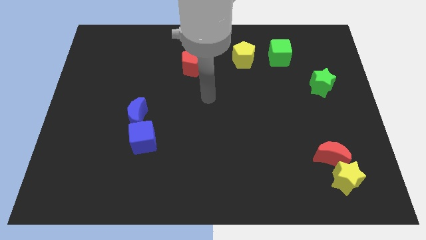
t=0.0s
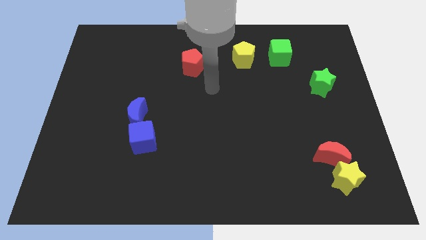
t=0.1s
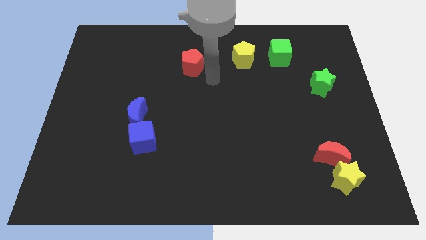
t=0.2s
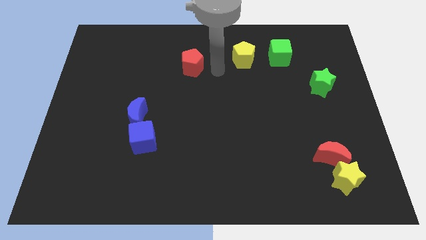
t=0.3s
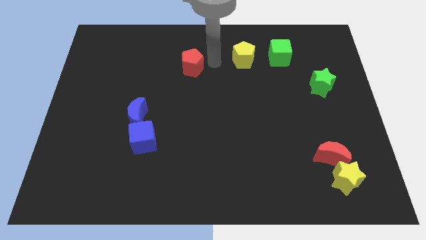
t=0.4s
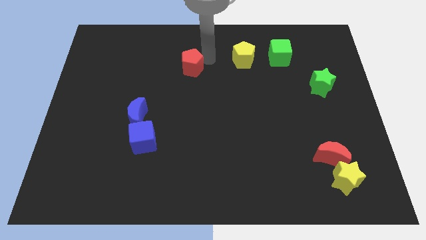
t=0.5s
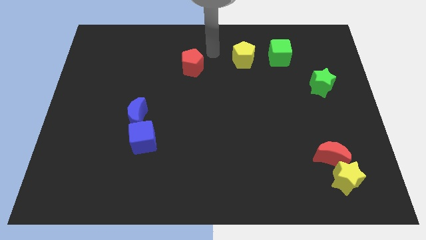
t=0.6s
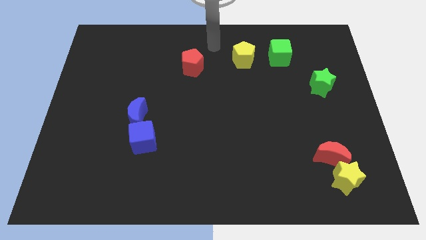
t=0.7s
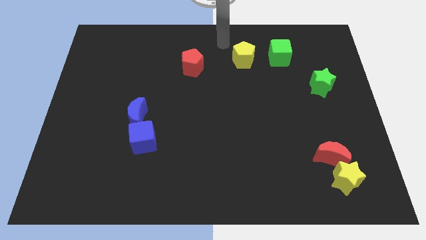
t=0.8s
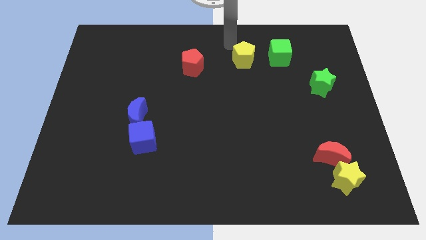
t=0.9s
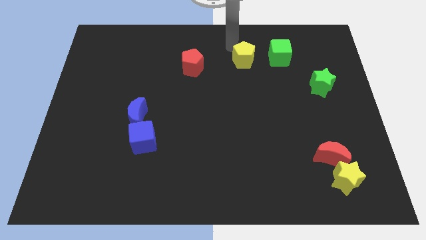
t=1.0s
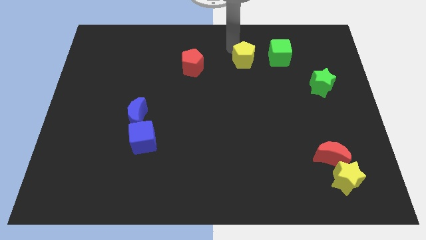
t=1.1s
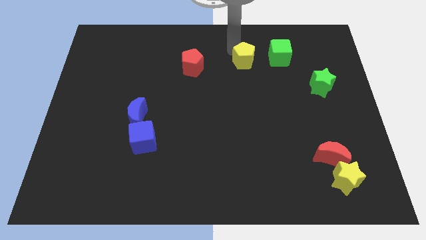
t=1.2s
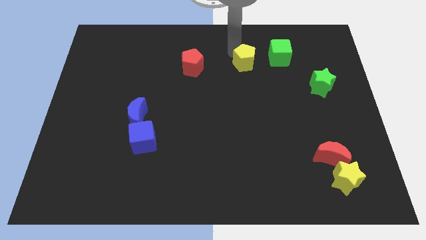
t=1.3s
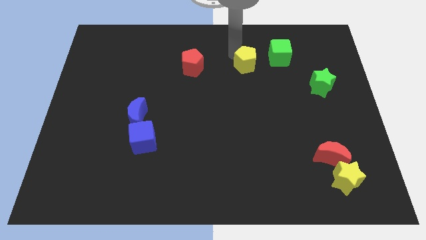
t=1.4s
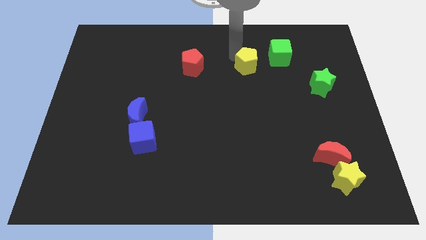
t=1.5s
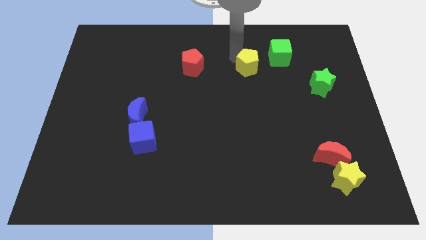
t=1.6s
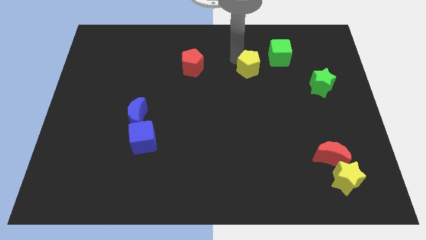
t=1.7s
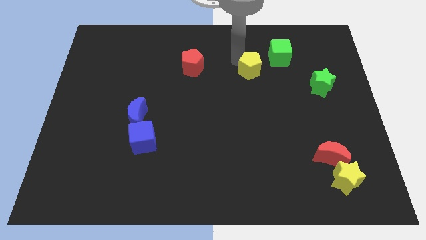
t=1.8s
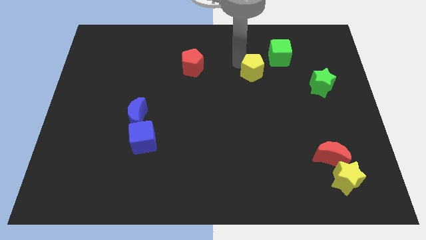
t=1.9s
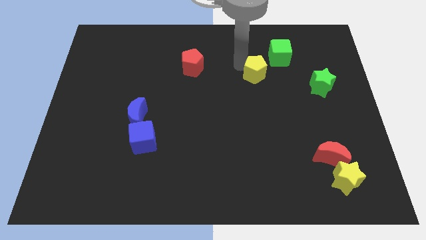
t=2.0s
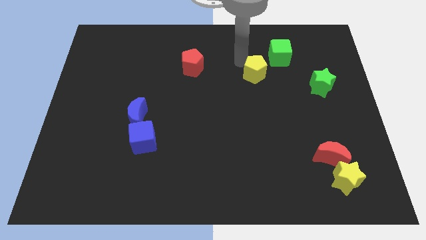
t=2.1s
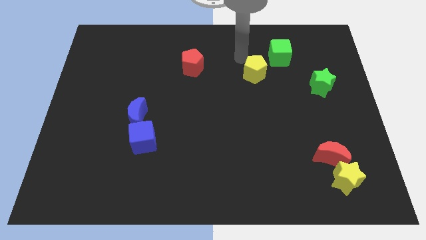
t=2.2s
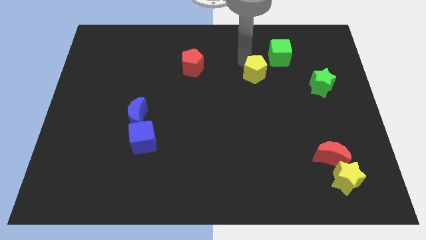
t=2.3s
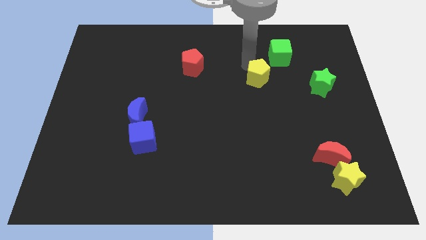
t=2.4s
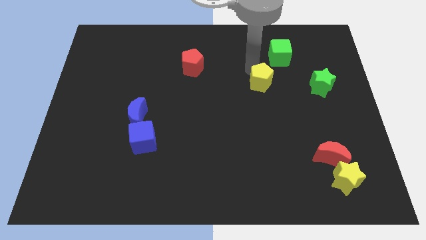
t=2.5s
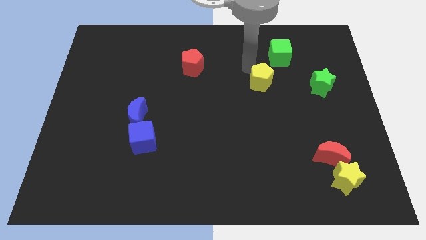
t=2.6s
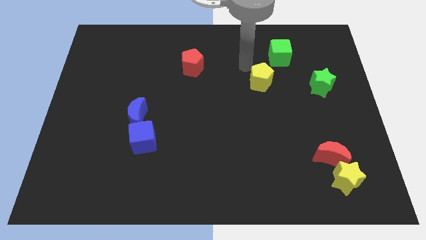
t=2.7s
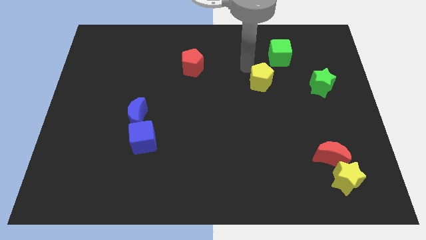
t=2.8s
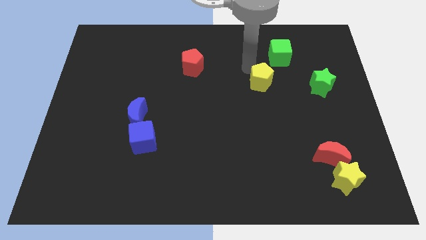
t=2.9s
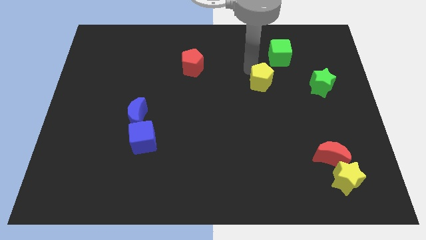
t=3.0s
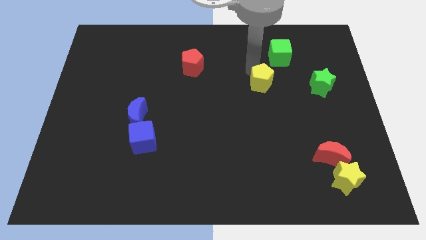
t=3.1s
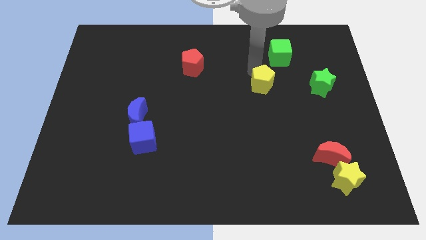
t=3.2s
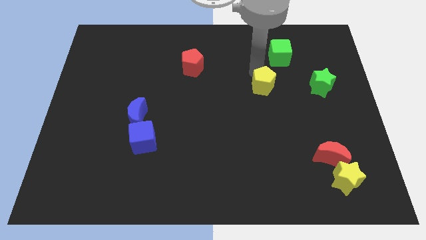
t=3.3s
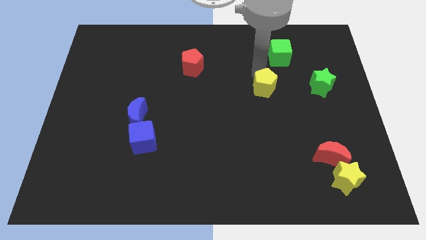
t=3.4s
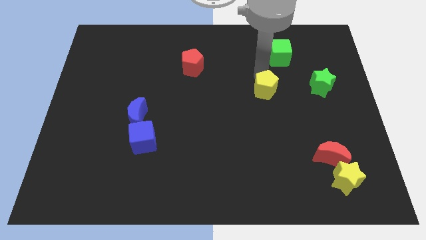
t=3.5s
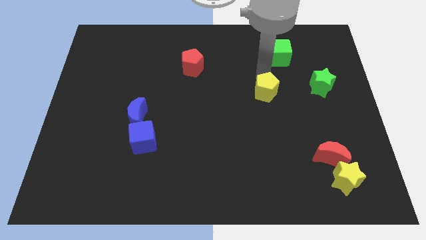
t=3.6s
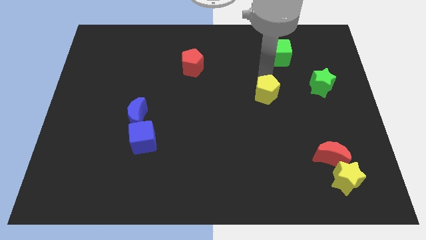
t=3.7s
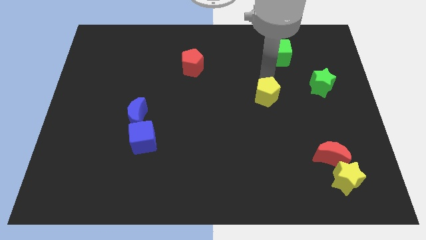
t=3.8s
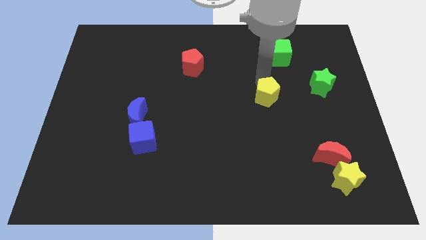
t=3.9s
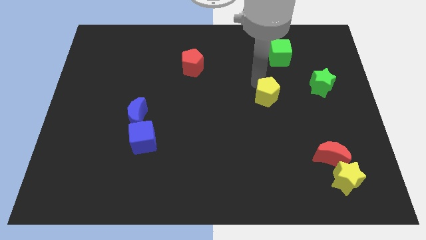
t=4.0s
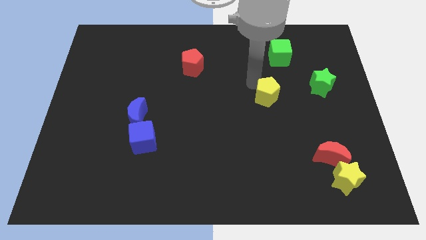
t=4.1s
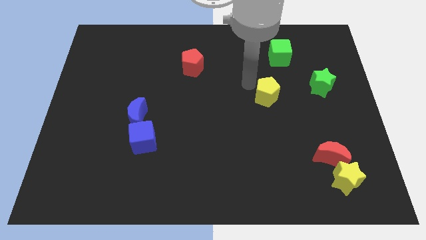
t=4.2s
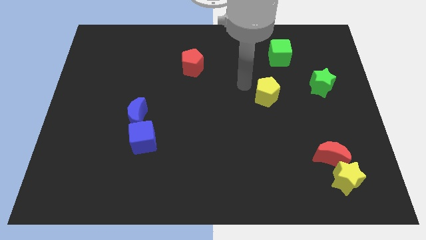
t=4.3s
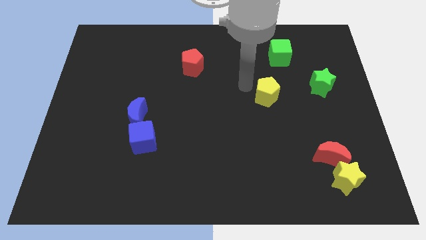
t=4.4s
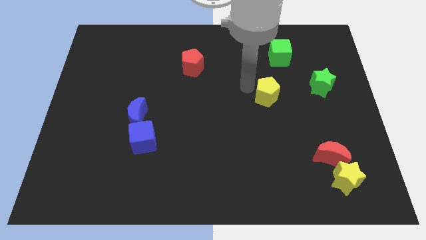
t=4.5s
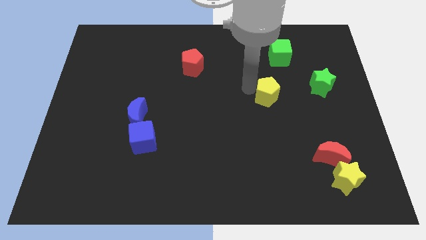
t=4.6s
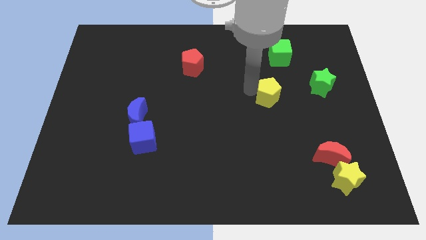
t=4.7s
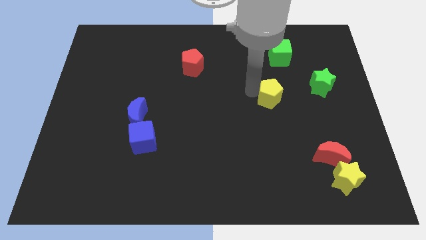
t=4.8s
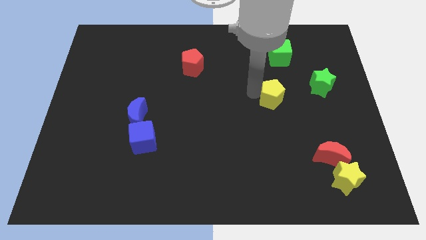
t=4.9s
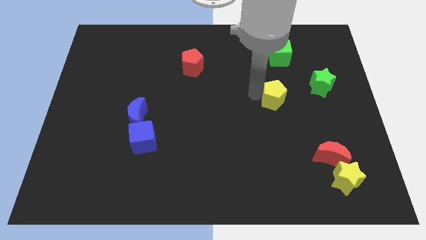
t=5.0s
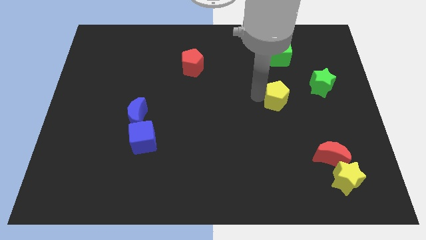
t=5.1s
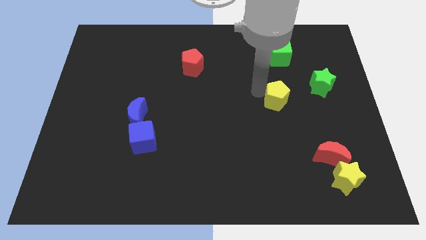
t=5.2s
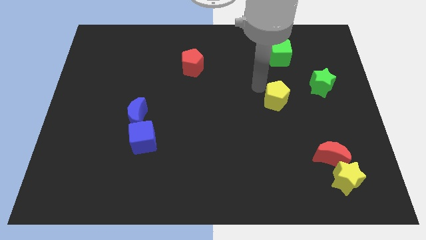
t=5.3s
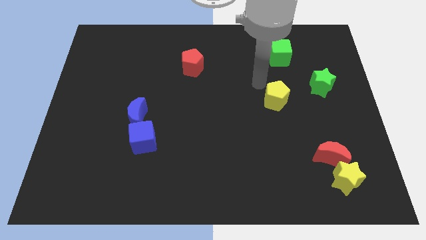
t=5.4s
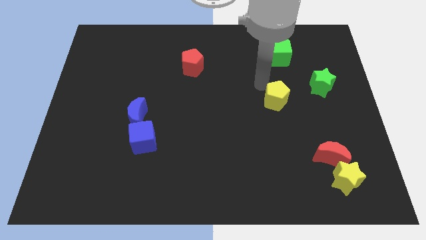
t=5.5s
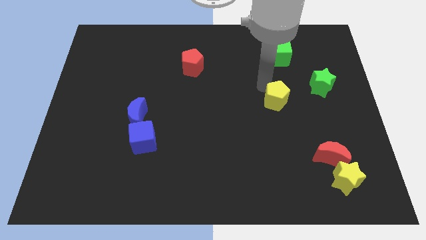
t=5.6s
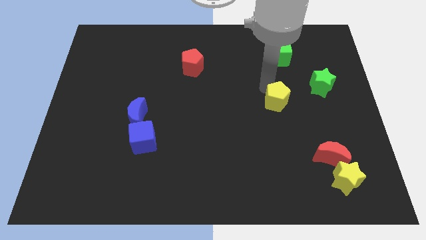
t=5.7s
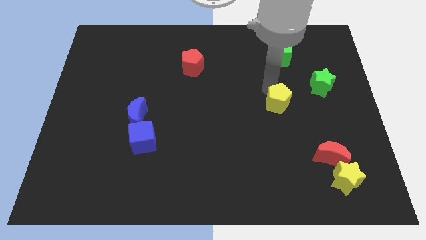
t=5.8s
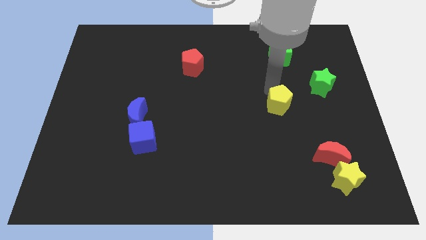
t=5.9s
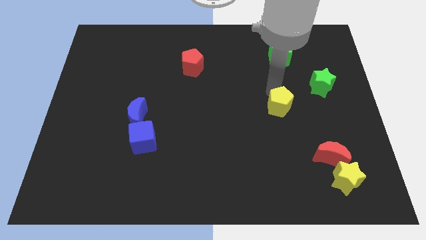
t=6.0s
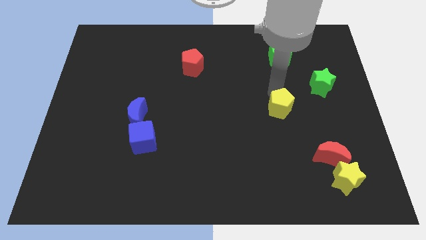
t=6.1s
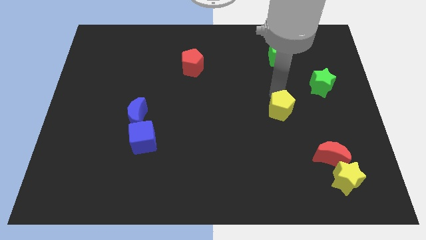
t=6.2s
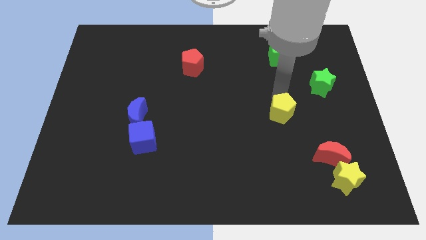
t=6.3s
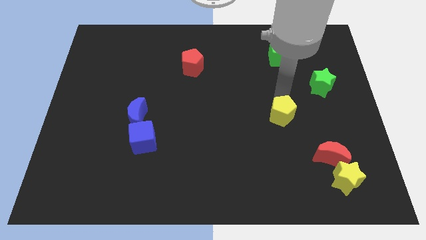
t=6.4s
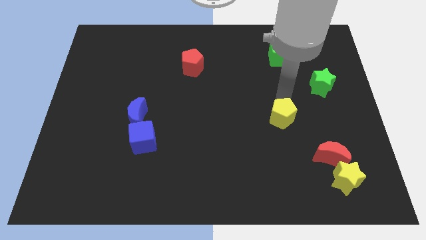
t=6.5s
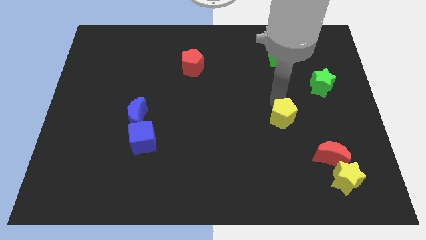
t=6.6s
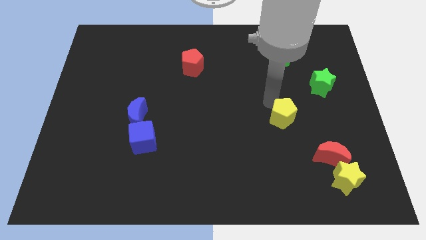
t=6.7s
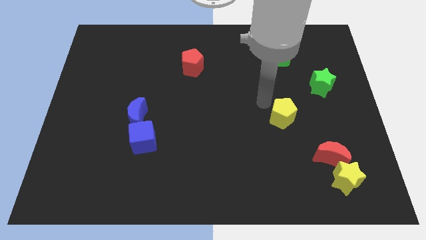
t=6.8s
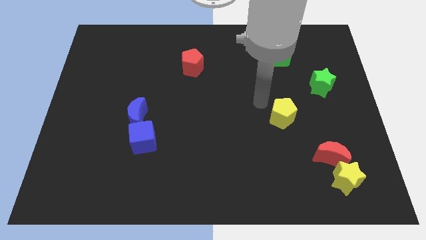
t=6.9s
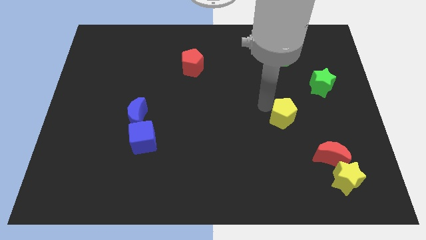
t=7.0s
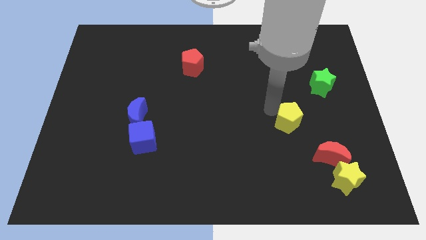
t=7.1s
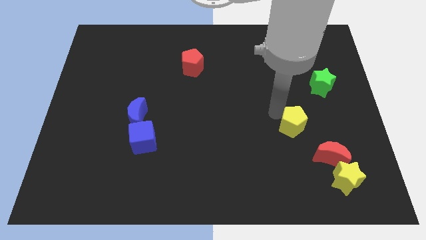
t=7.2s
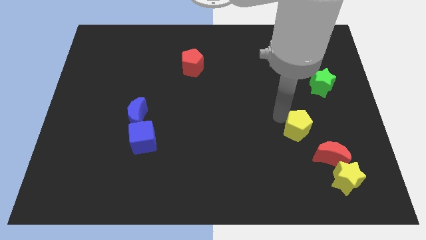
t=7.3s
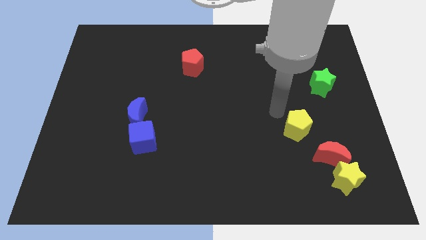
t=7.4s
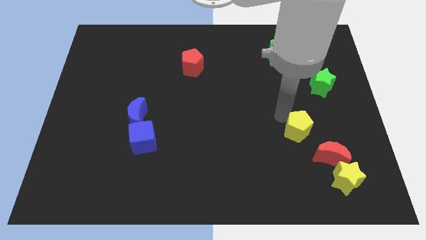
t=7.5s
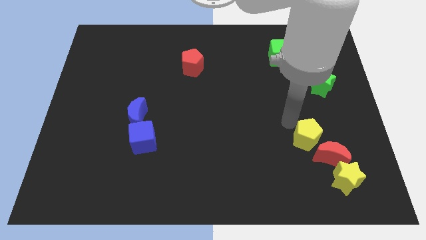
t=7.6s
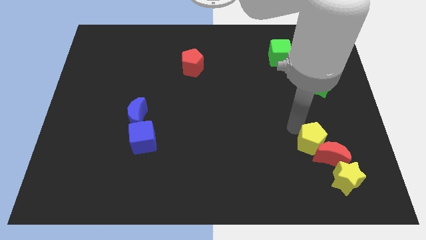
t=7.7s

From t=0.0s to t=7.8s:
move the yellow pentagon to the red moon
